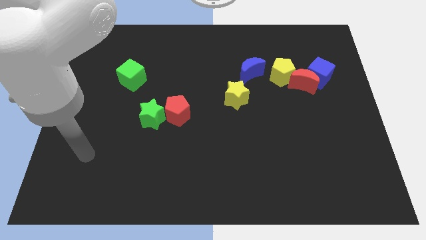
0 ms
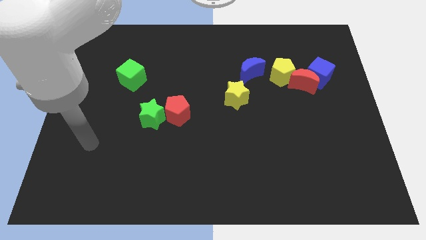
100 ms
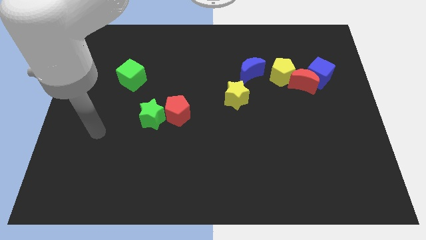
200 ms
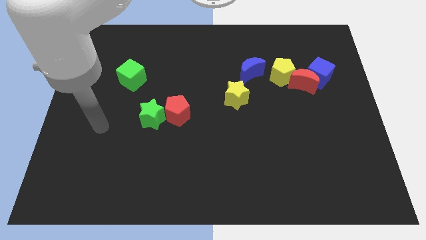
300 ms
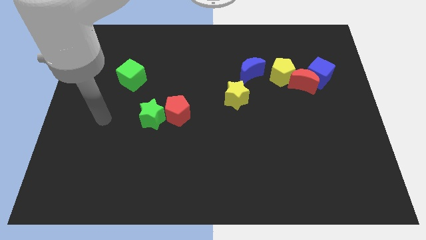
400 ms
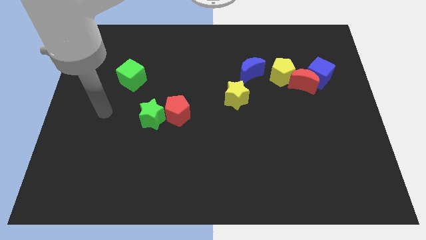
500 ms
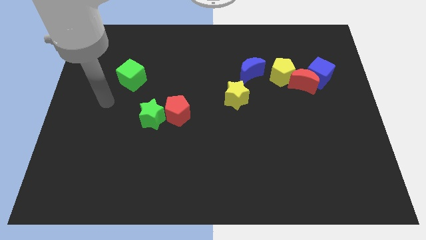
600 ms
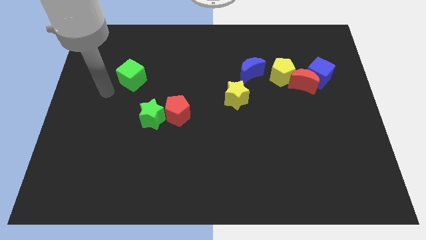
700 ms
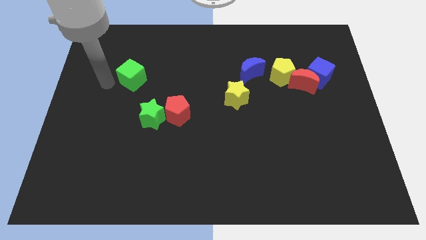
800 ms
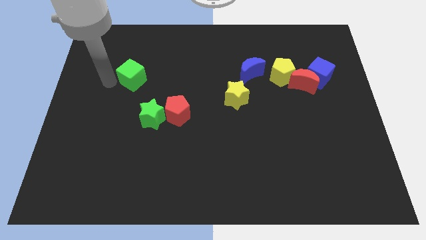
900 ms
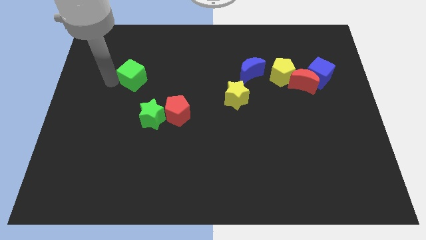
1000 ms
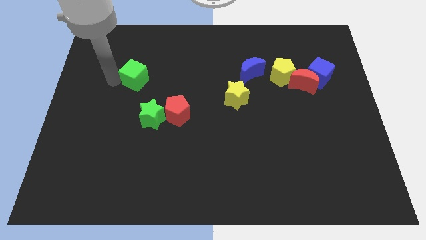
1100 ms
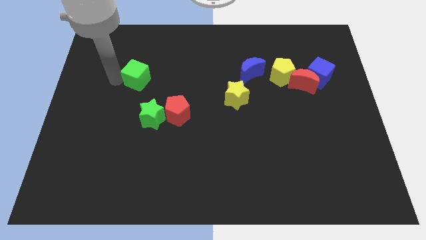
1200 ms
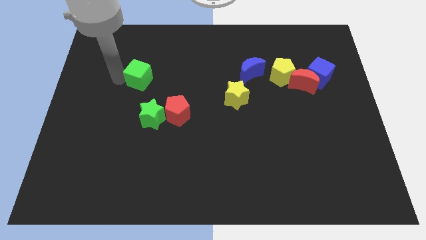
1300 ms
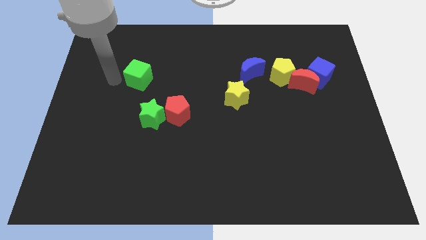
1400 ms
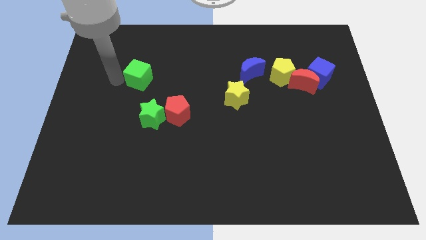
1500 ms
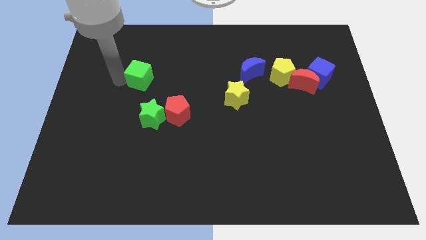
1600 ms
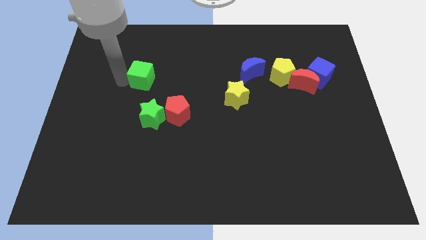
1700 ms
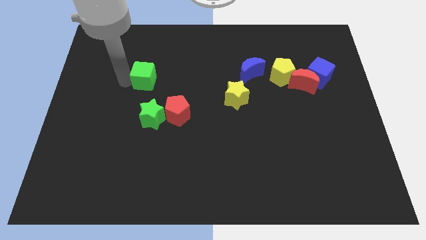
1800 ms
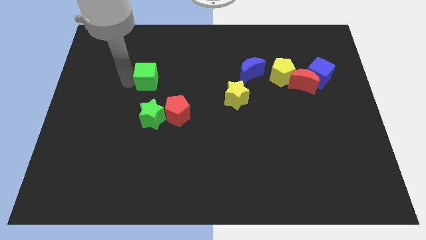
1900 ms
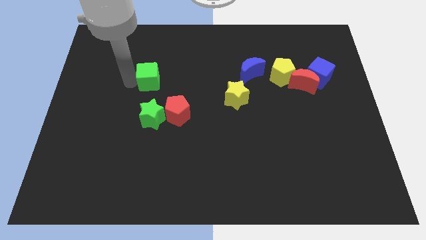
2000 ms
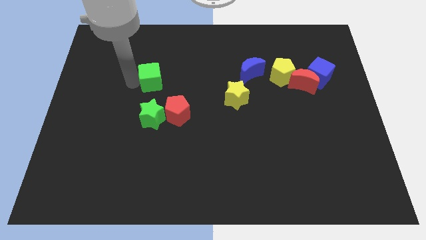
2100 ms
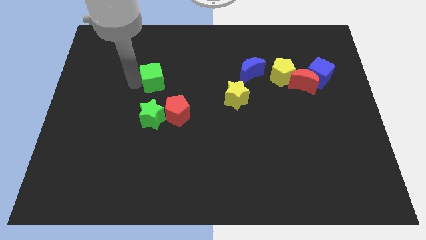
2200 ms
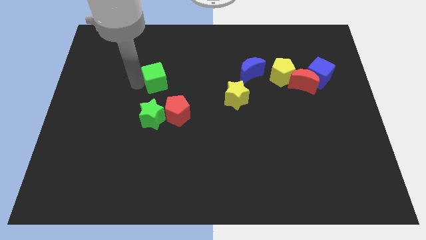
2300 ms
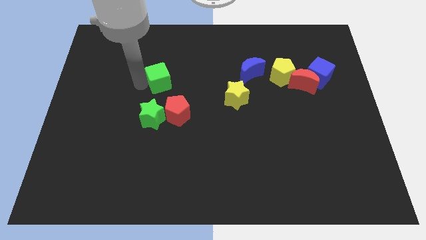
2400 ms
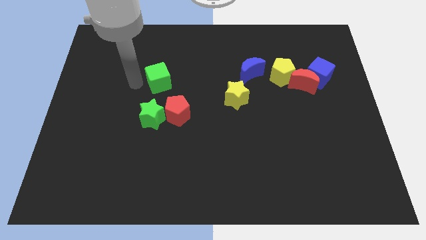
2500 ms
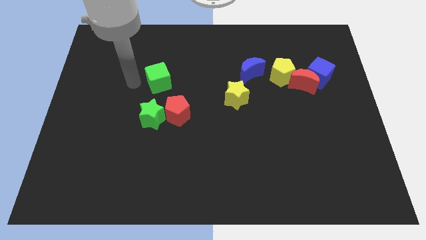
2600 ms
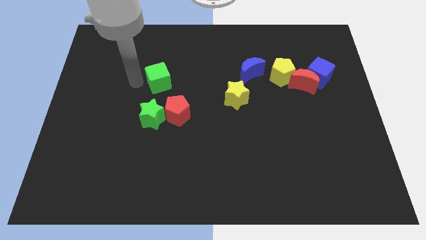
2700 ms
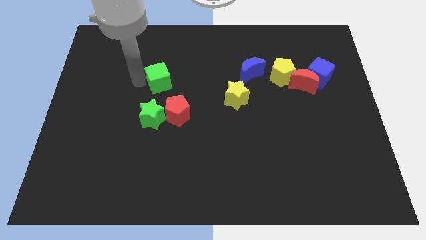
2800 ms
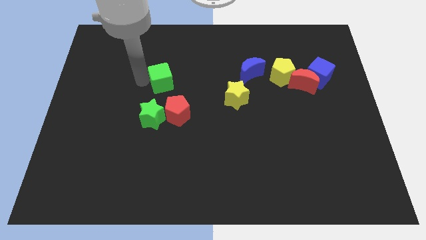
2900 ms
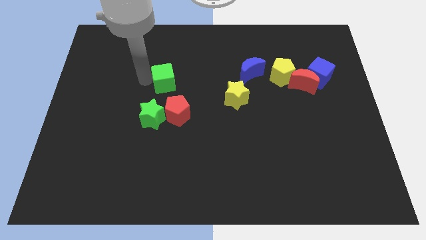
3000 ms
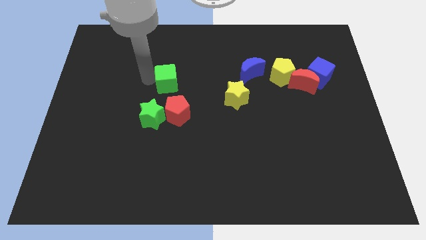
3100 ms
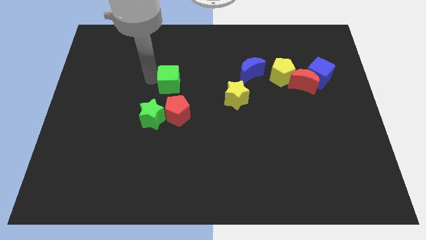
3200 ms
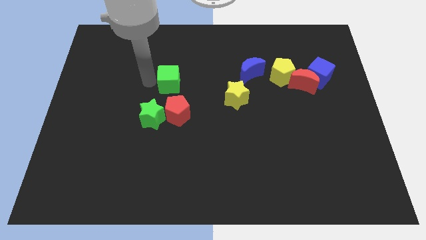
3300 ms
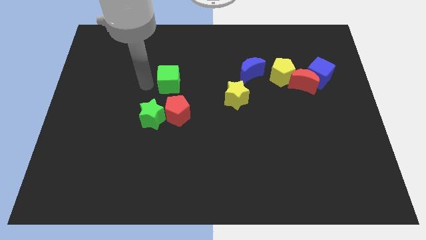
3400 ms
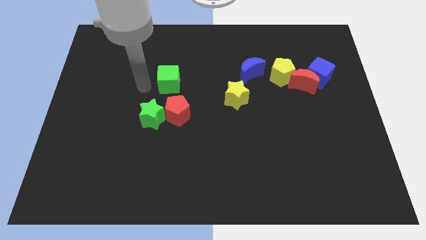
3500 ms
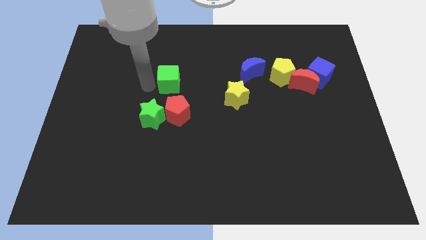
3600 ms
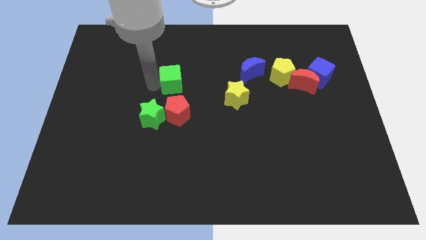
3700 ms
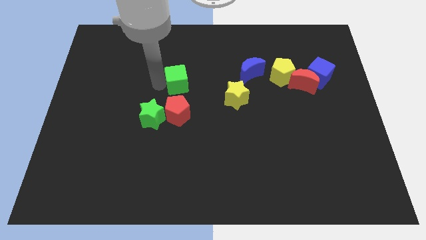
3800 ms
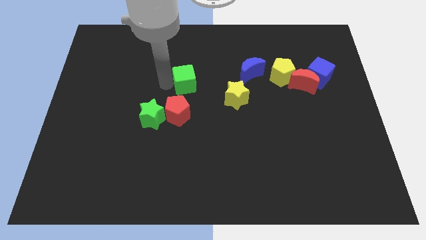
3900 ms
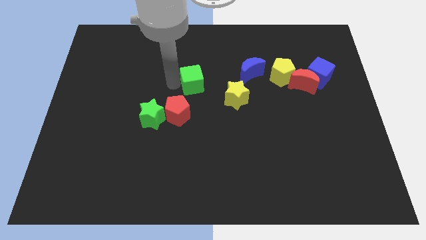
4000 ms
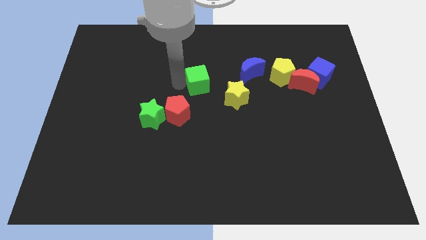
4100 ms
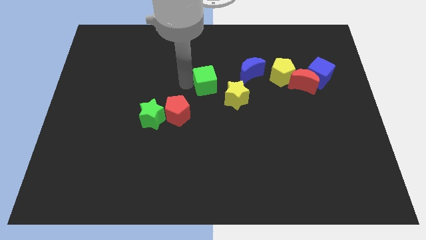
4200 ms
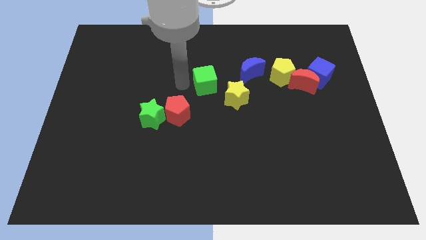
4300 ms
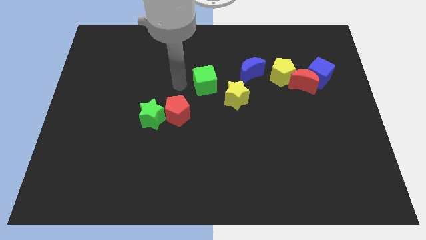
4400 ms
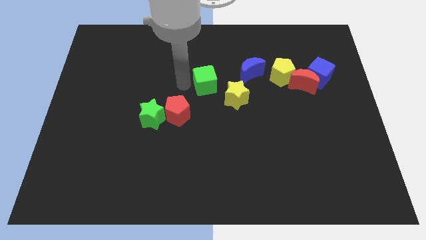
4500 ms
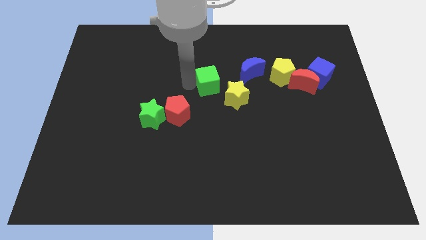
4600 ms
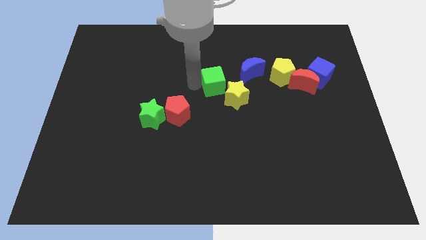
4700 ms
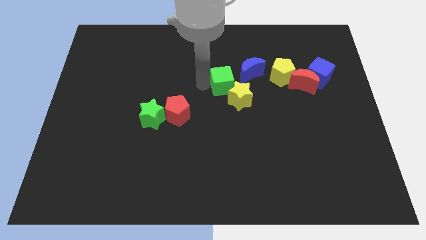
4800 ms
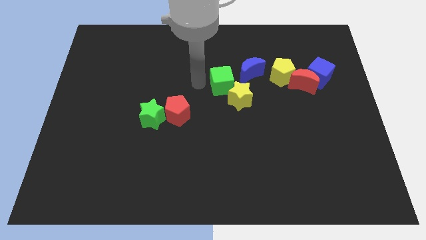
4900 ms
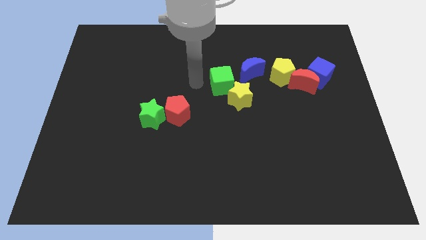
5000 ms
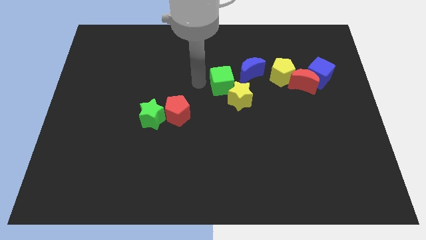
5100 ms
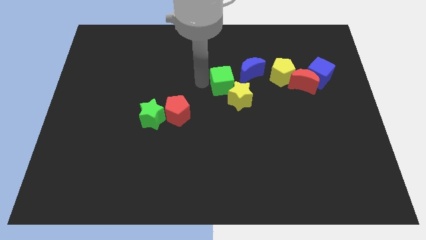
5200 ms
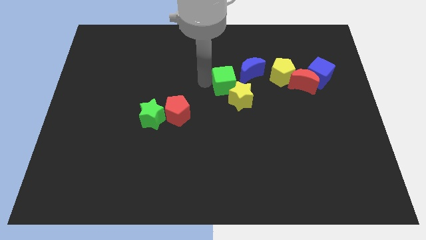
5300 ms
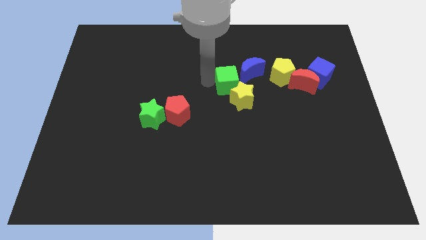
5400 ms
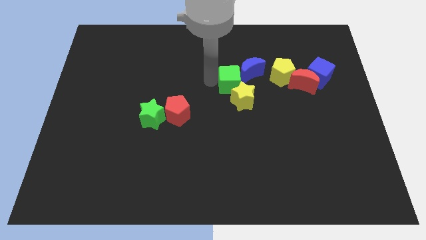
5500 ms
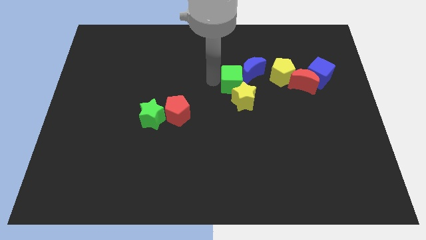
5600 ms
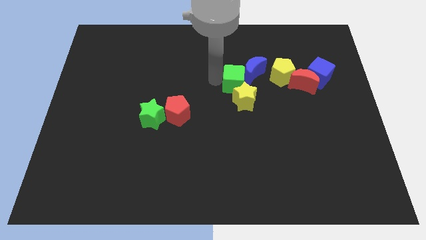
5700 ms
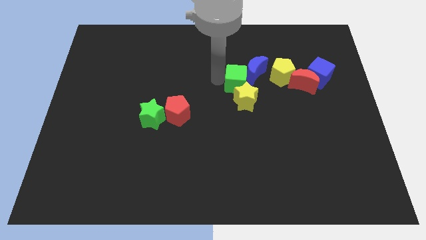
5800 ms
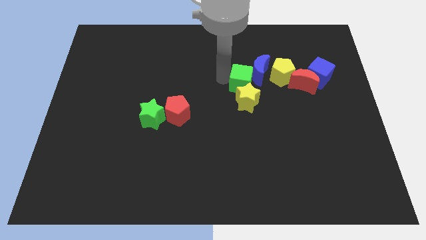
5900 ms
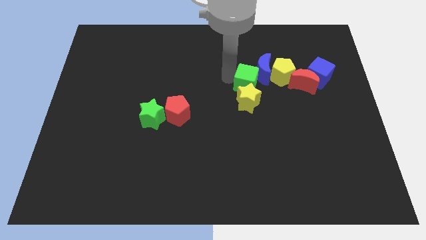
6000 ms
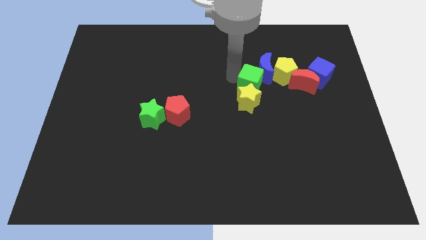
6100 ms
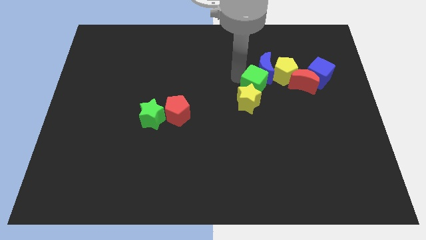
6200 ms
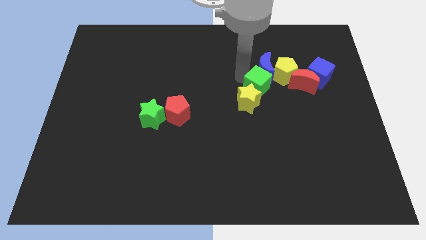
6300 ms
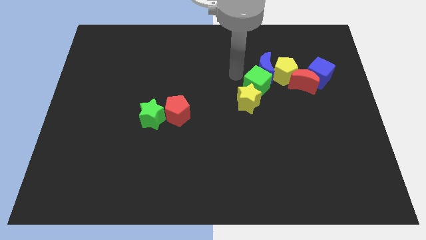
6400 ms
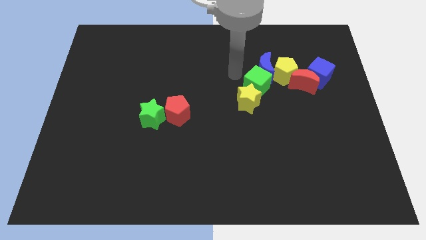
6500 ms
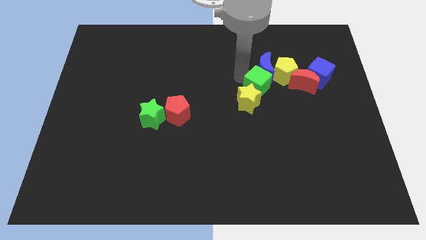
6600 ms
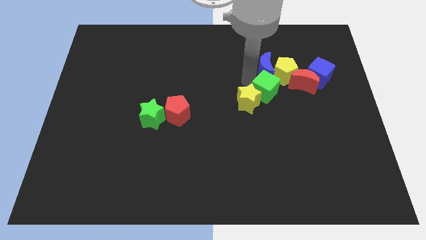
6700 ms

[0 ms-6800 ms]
move the green cube just right of the yellow star

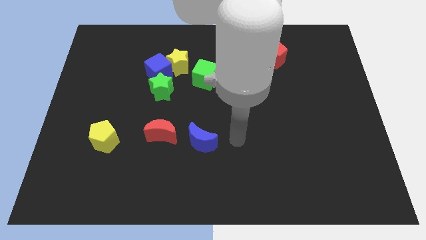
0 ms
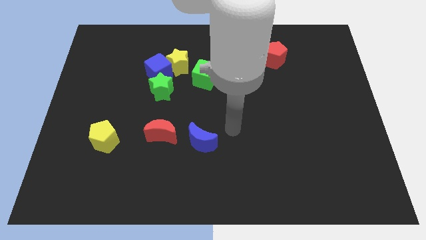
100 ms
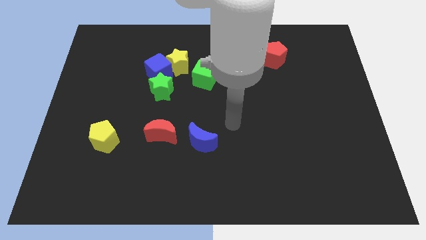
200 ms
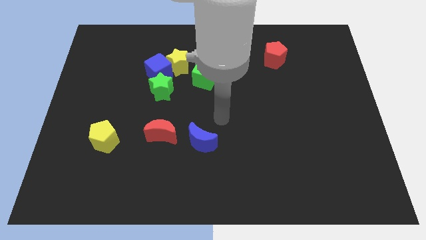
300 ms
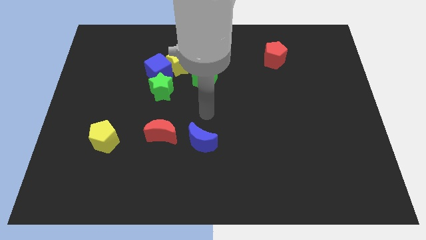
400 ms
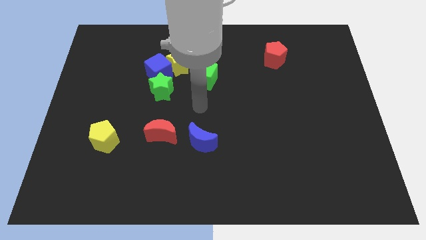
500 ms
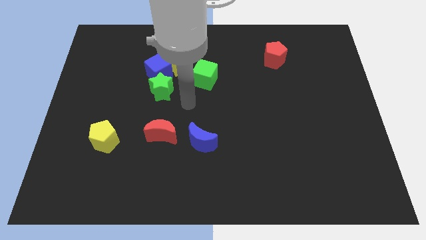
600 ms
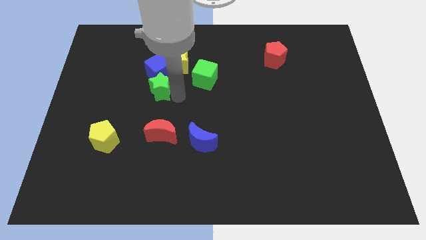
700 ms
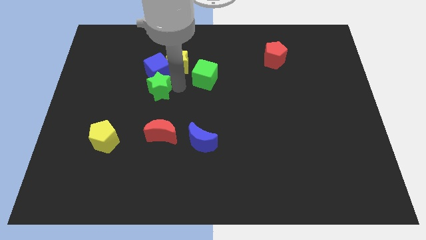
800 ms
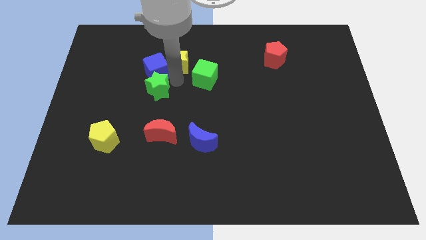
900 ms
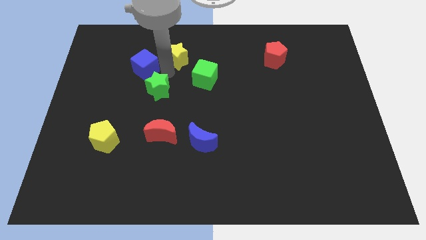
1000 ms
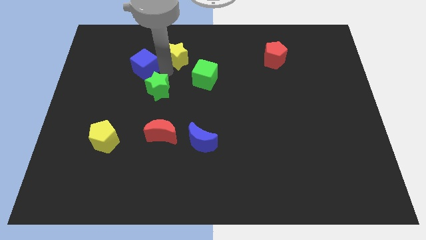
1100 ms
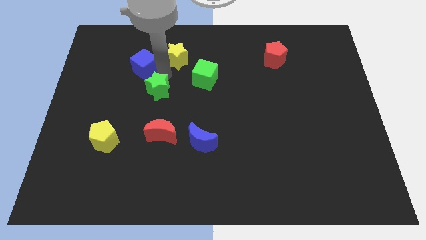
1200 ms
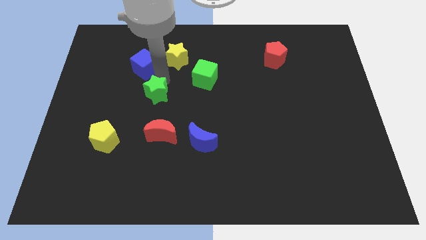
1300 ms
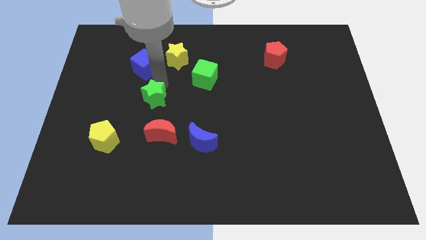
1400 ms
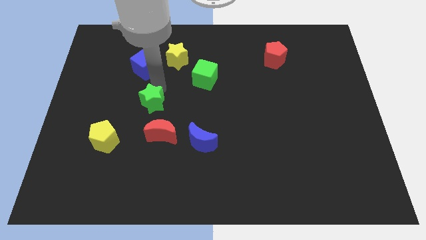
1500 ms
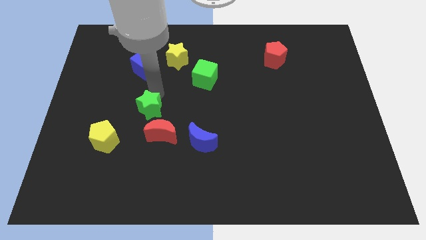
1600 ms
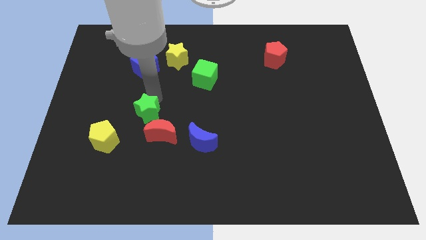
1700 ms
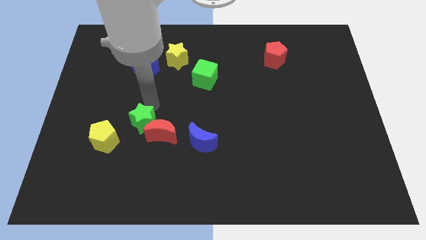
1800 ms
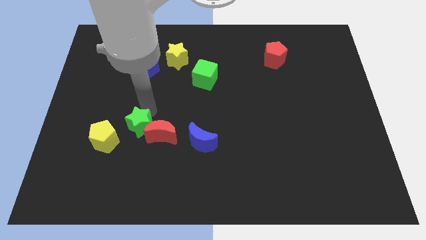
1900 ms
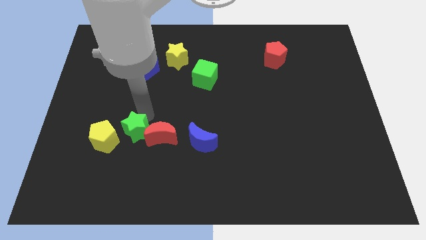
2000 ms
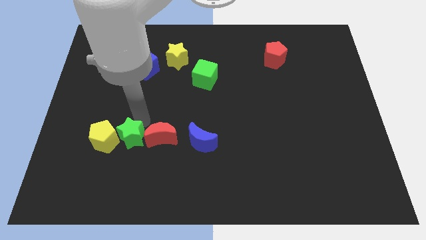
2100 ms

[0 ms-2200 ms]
put the green star to the bottom right side of the yellow pentagon
